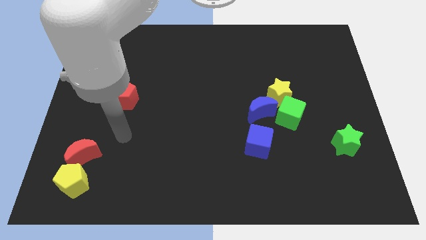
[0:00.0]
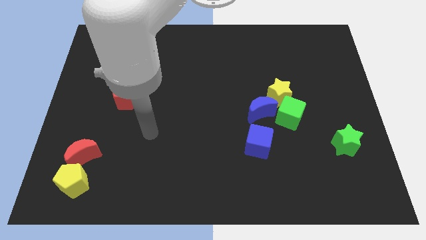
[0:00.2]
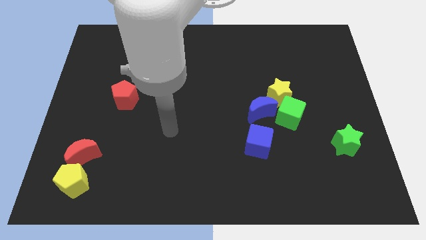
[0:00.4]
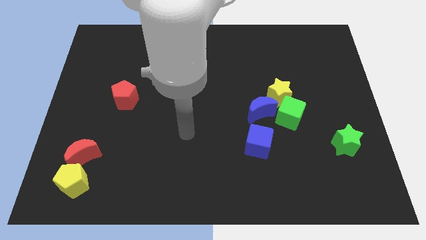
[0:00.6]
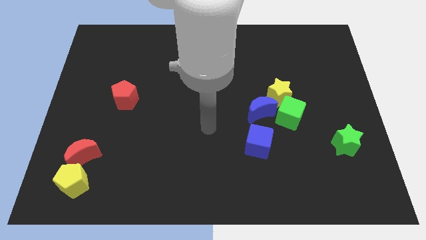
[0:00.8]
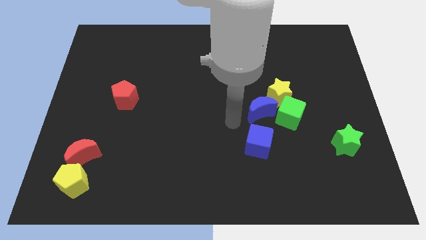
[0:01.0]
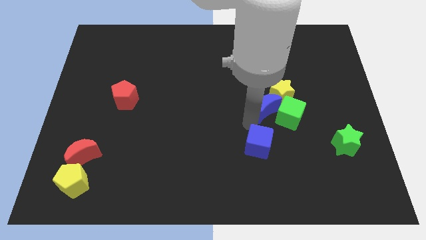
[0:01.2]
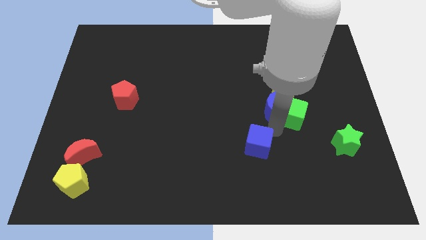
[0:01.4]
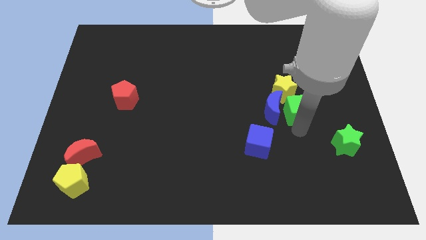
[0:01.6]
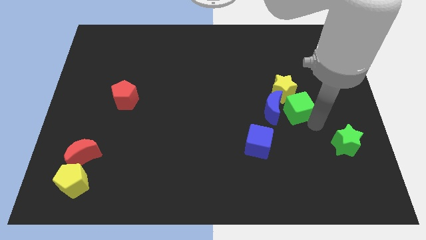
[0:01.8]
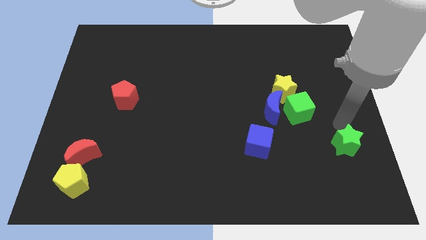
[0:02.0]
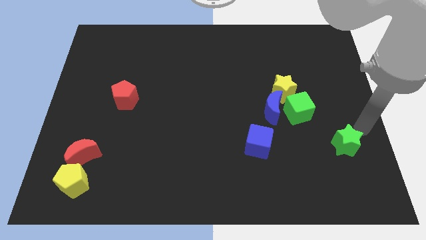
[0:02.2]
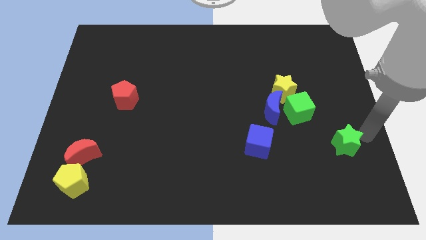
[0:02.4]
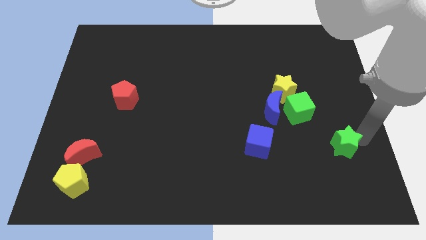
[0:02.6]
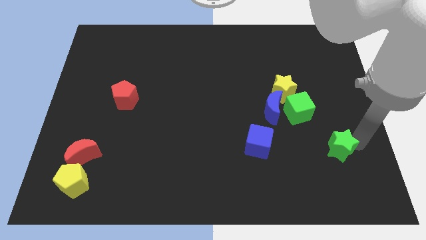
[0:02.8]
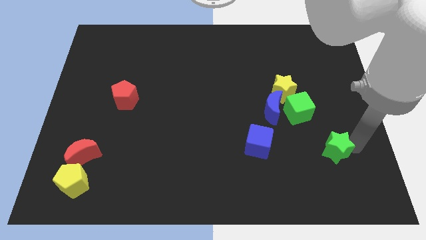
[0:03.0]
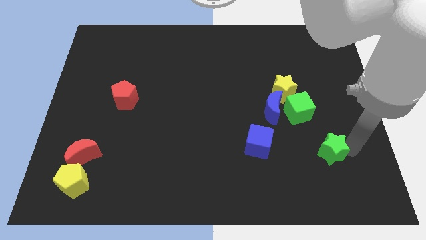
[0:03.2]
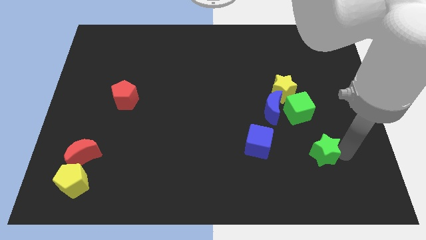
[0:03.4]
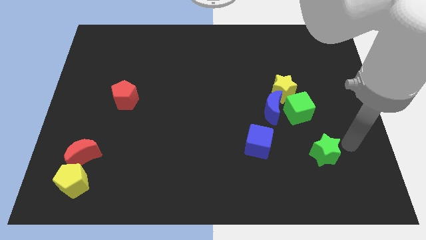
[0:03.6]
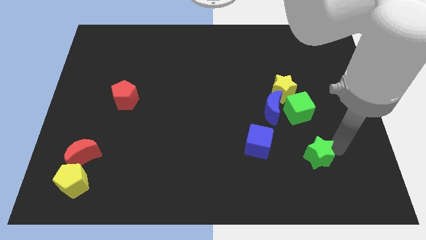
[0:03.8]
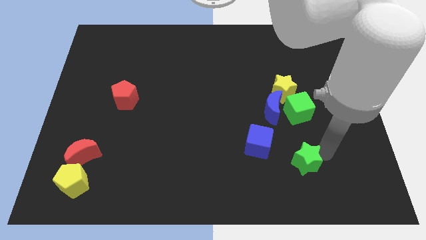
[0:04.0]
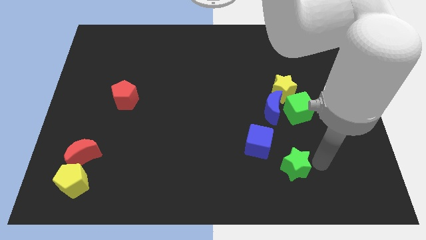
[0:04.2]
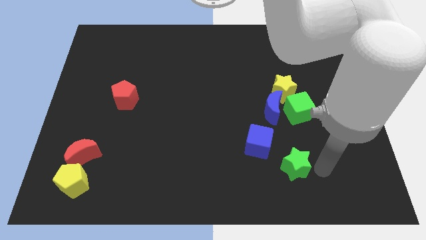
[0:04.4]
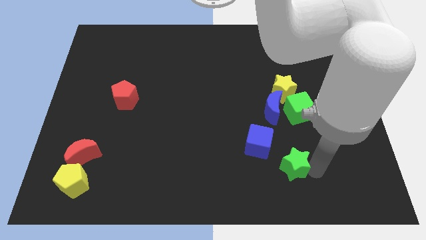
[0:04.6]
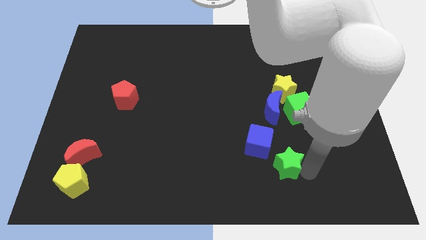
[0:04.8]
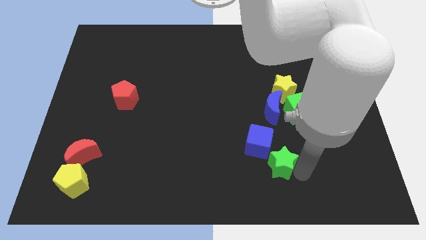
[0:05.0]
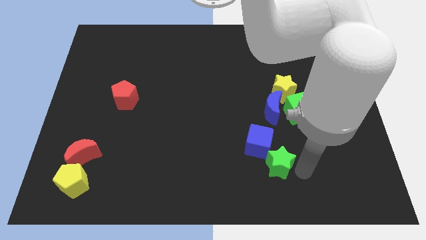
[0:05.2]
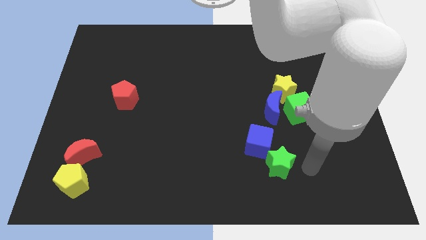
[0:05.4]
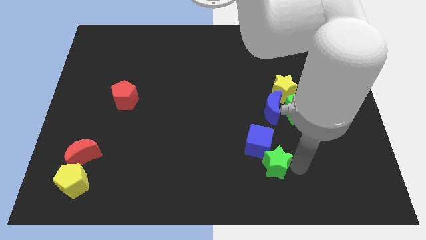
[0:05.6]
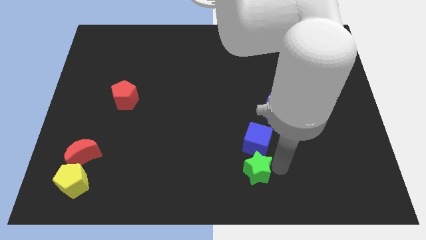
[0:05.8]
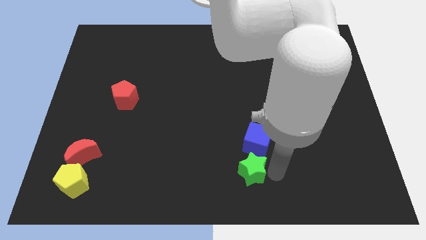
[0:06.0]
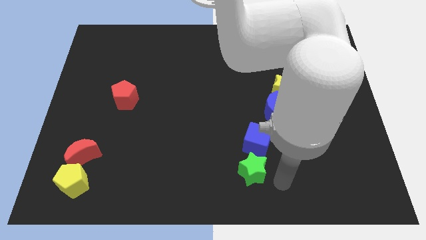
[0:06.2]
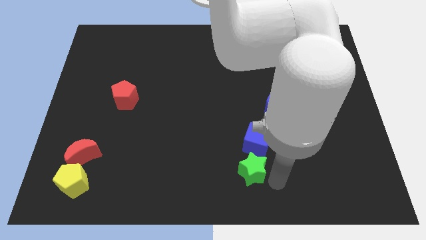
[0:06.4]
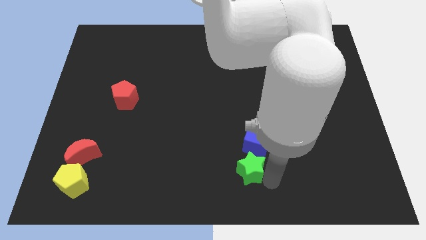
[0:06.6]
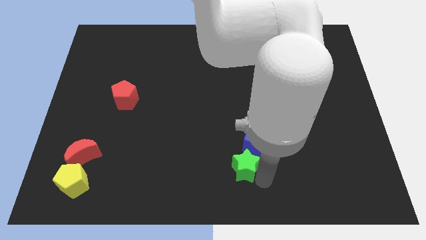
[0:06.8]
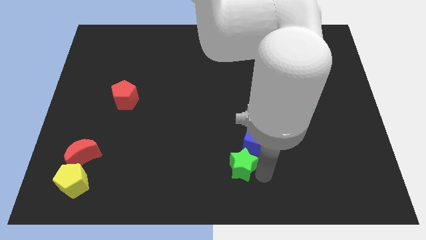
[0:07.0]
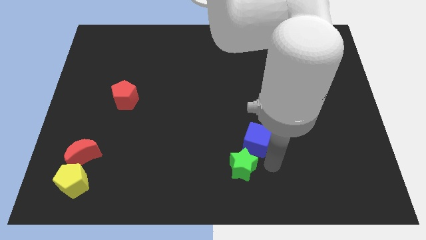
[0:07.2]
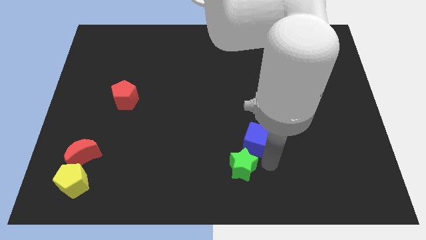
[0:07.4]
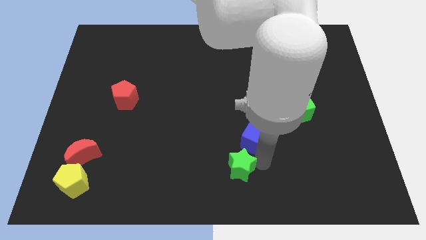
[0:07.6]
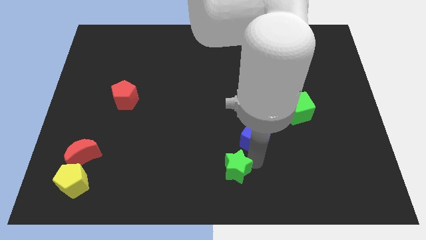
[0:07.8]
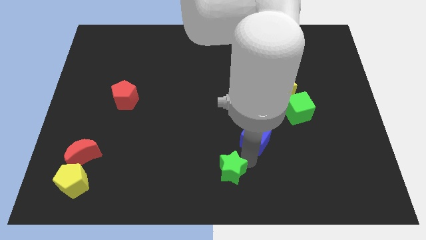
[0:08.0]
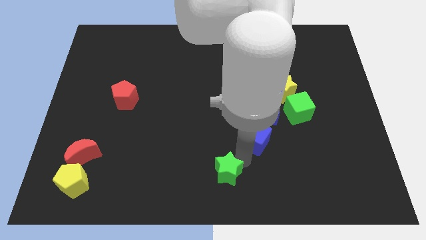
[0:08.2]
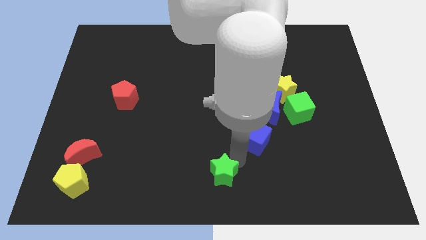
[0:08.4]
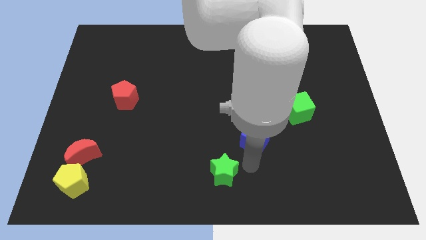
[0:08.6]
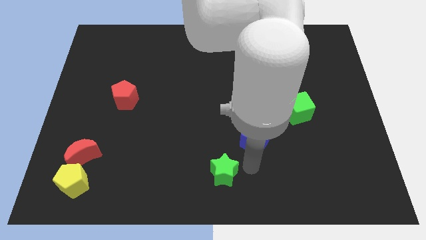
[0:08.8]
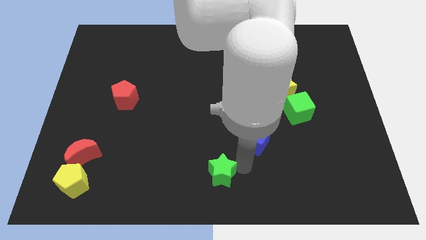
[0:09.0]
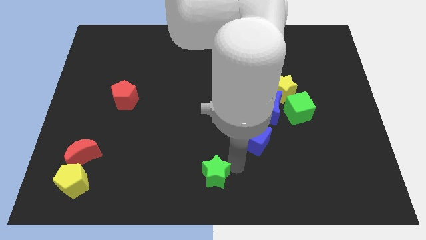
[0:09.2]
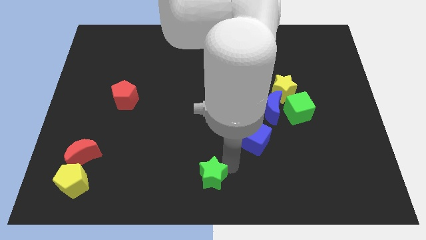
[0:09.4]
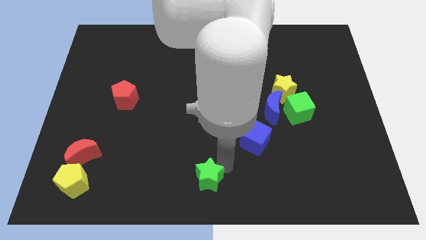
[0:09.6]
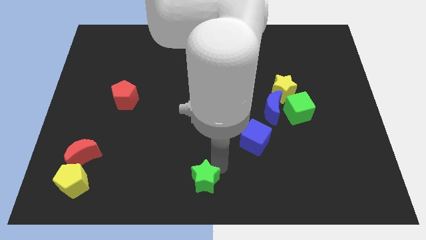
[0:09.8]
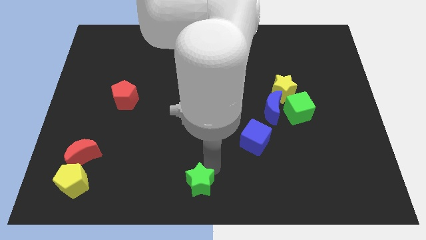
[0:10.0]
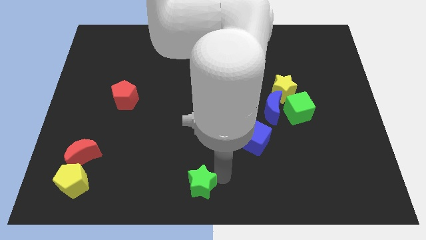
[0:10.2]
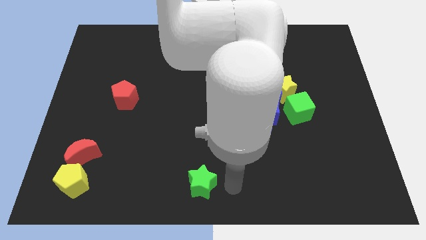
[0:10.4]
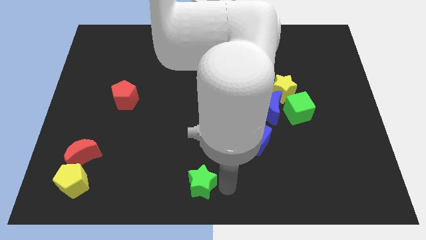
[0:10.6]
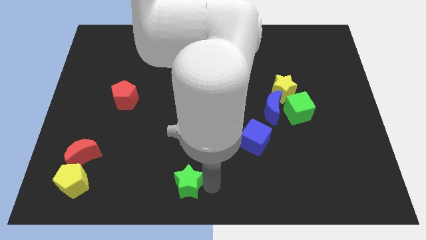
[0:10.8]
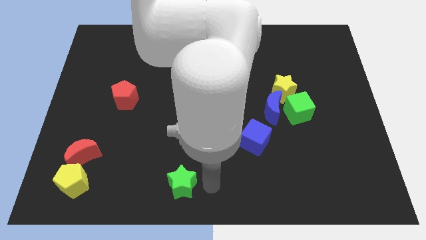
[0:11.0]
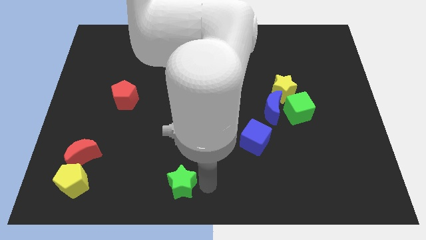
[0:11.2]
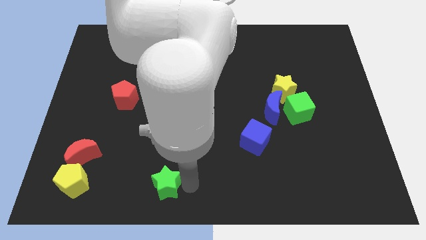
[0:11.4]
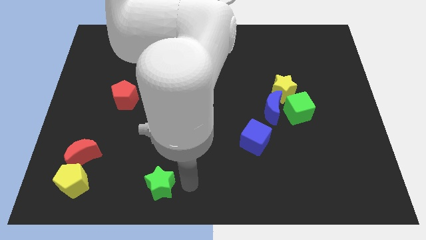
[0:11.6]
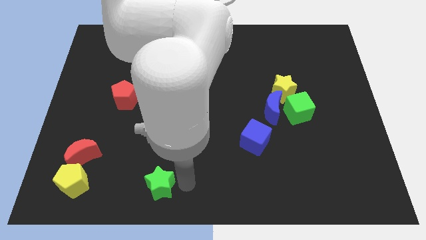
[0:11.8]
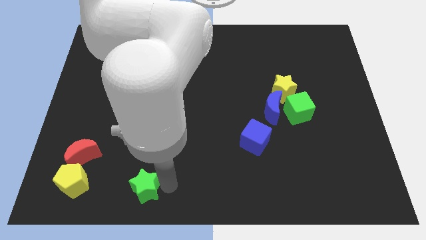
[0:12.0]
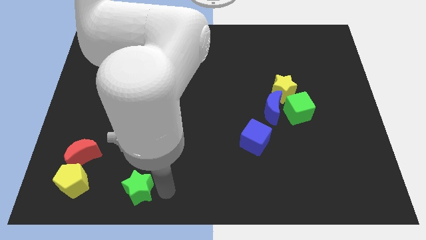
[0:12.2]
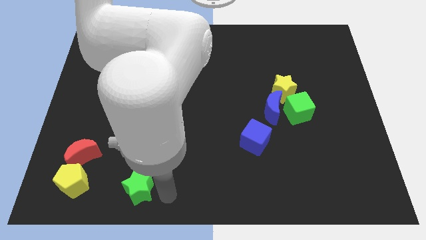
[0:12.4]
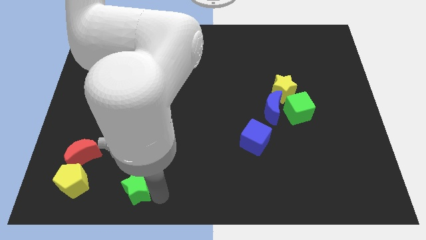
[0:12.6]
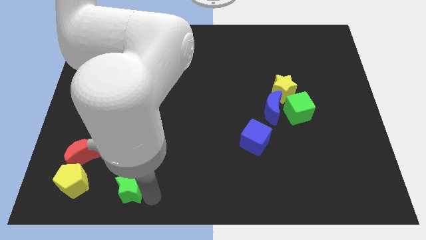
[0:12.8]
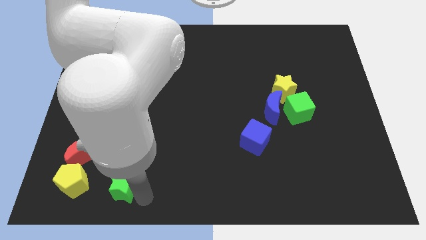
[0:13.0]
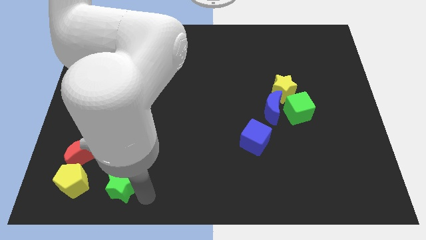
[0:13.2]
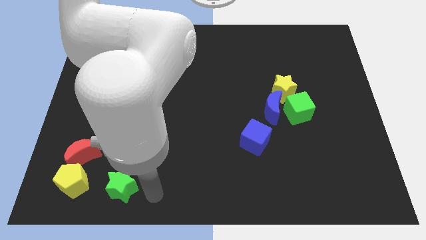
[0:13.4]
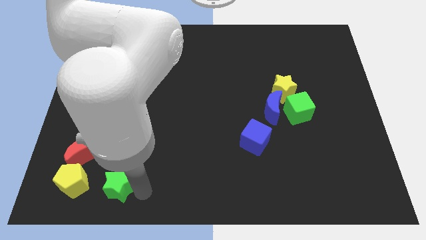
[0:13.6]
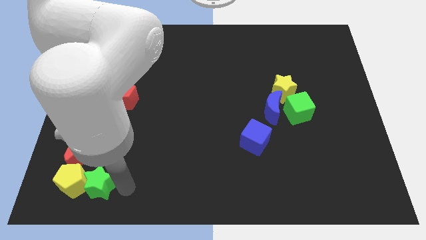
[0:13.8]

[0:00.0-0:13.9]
put the green star close to the yellow pentagon
